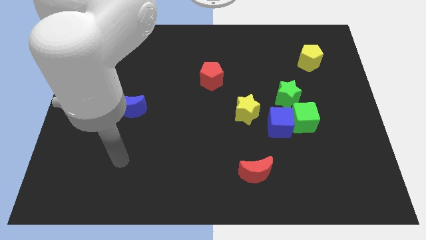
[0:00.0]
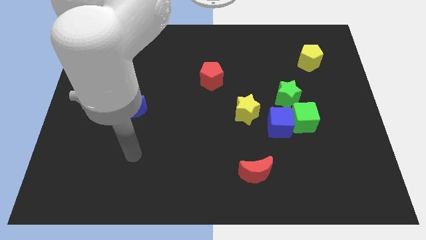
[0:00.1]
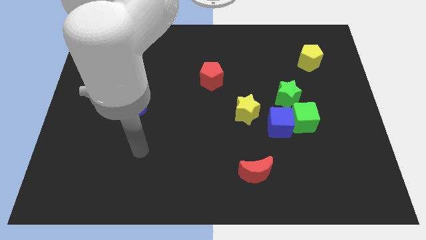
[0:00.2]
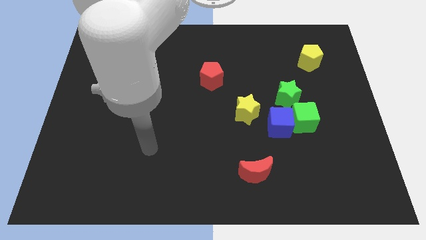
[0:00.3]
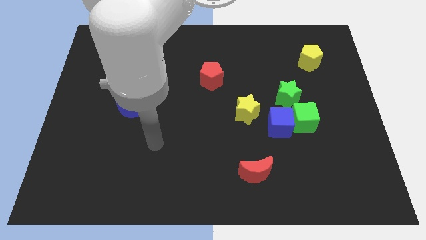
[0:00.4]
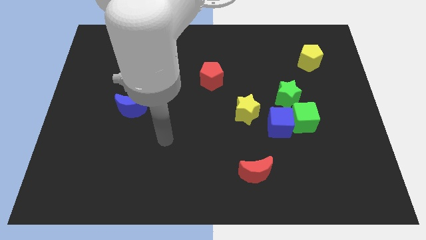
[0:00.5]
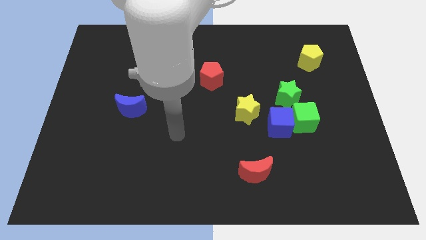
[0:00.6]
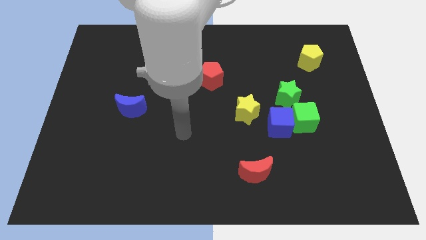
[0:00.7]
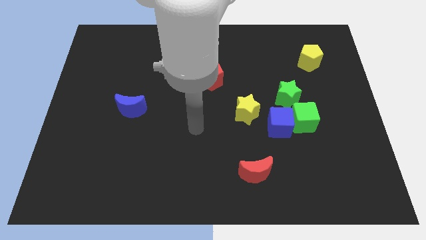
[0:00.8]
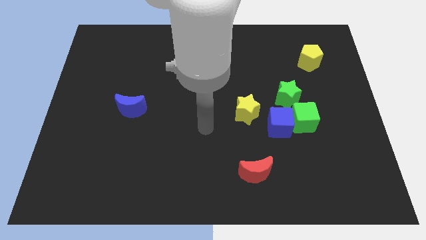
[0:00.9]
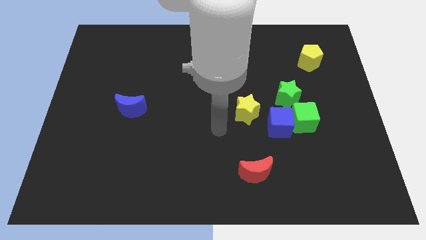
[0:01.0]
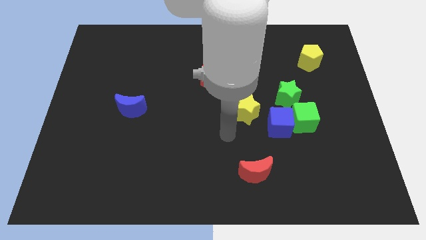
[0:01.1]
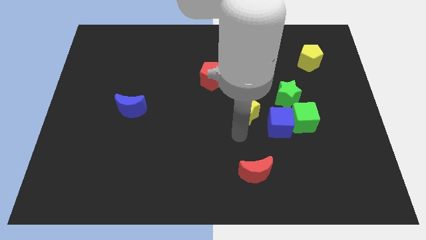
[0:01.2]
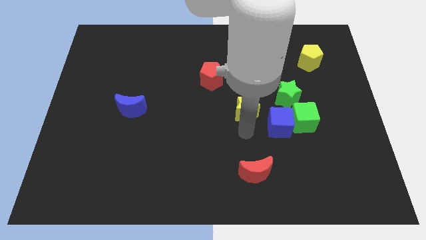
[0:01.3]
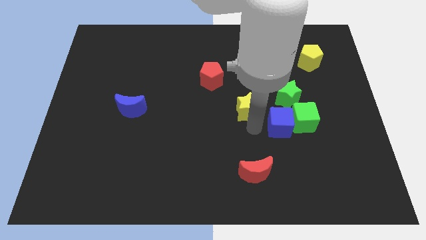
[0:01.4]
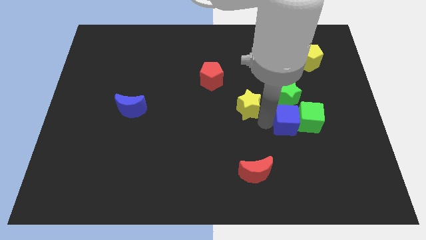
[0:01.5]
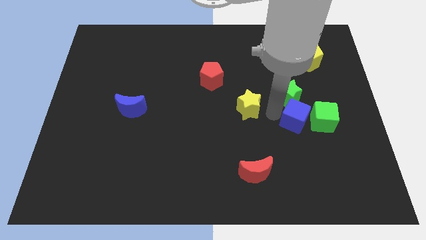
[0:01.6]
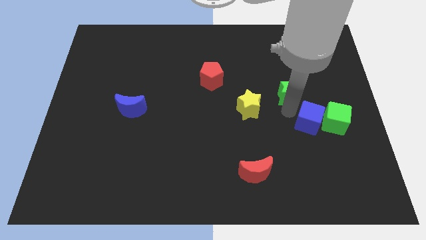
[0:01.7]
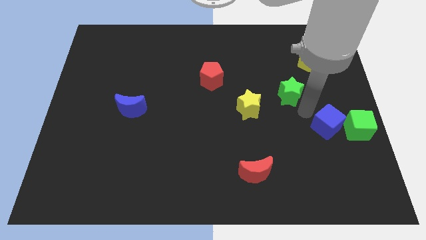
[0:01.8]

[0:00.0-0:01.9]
separate the green cube from the blue cube and green star

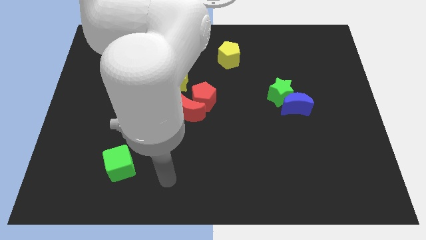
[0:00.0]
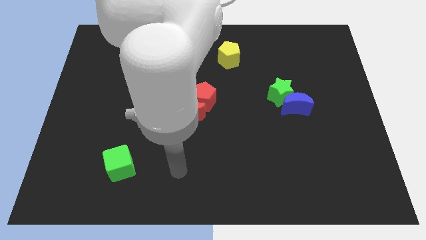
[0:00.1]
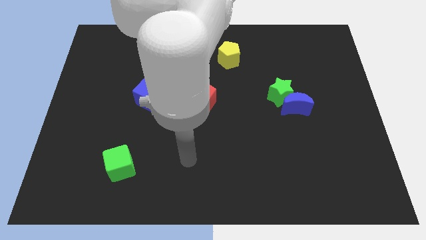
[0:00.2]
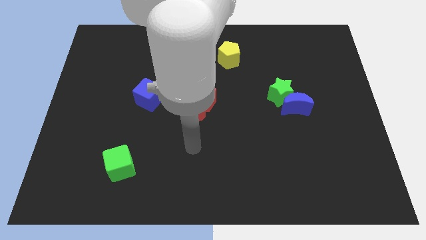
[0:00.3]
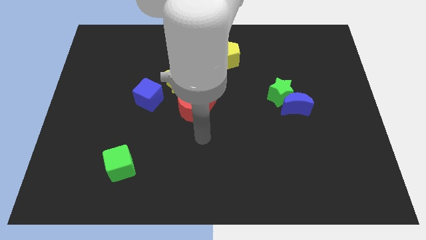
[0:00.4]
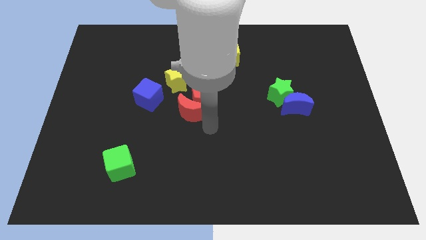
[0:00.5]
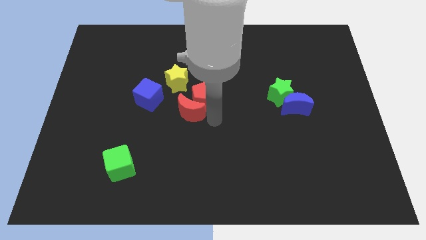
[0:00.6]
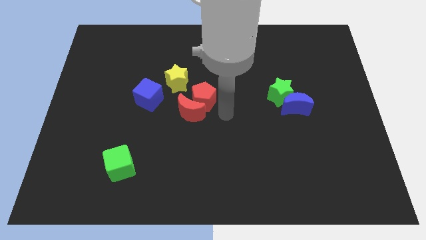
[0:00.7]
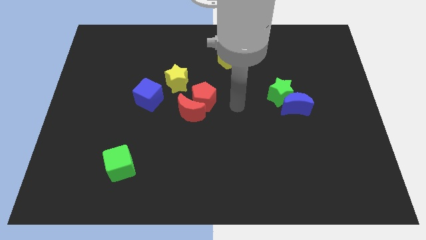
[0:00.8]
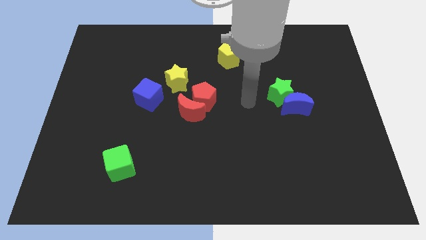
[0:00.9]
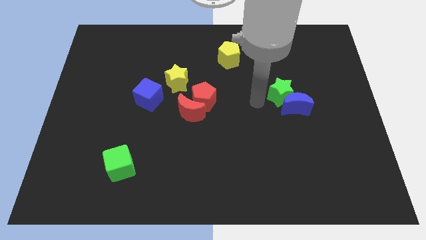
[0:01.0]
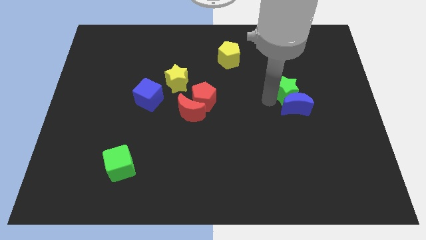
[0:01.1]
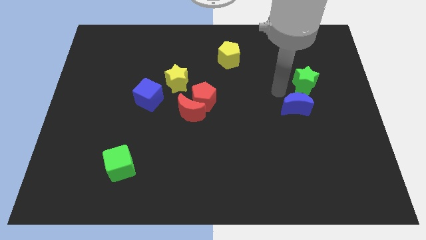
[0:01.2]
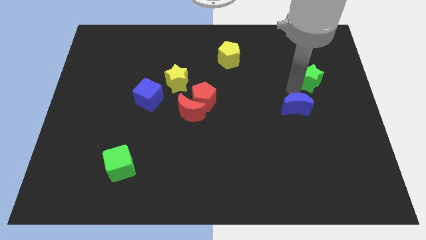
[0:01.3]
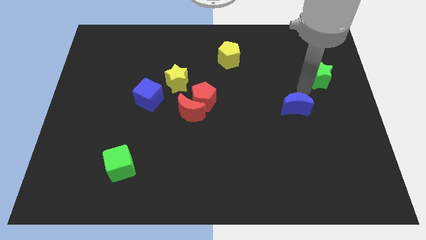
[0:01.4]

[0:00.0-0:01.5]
pull the blue moon apart from the green star

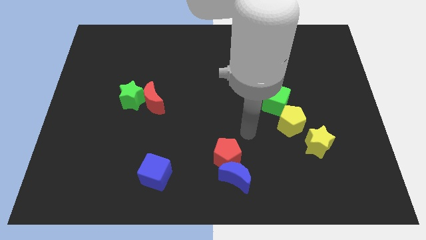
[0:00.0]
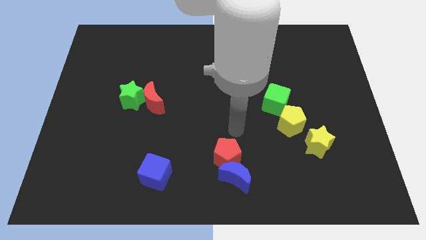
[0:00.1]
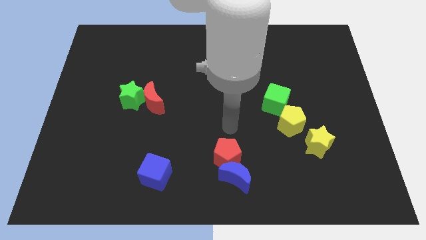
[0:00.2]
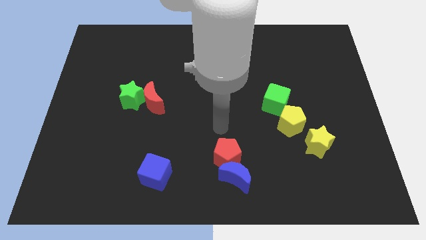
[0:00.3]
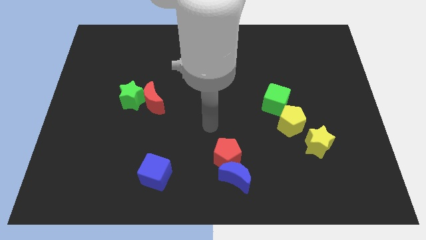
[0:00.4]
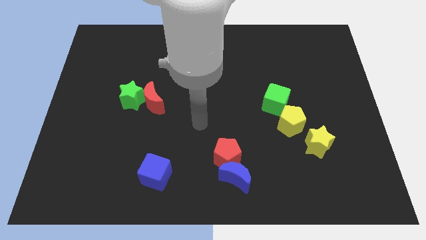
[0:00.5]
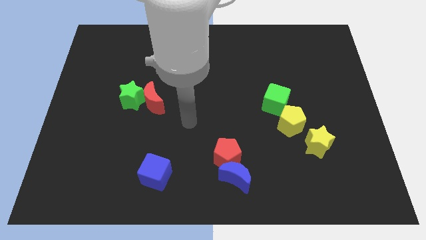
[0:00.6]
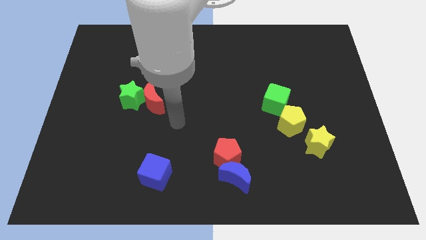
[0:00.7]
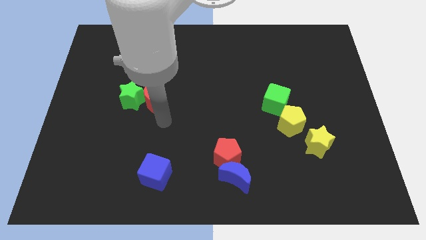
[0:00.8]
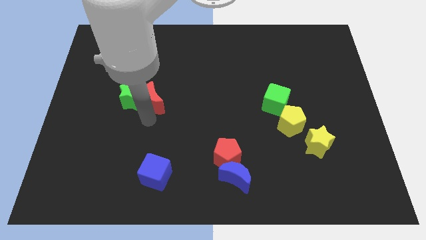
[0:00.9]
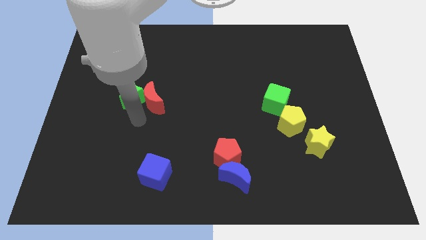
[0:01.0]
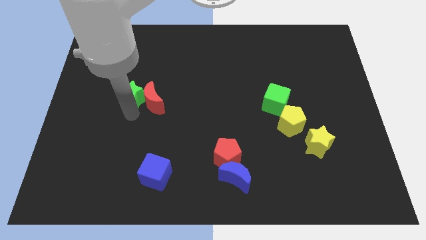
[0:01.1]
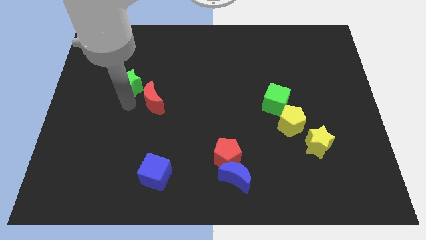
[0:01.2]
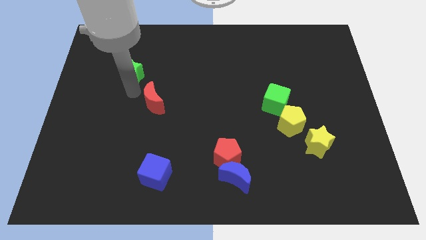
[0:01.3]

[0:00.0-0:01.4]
move the red moon away from the green star

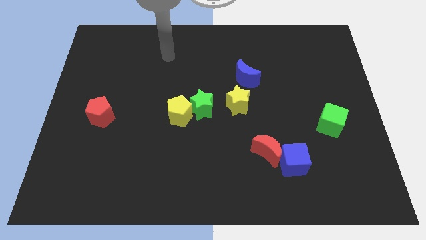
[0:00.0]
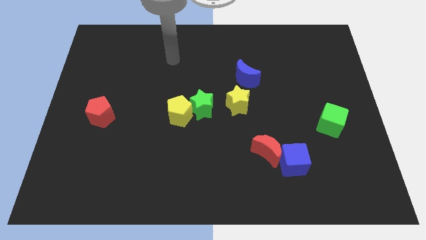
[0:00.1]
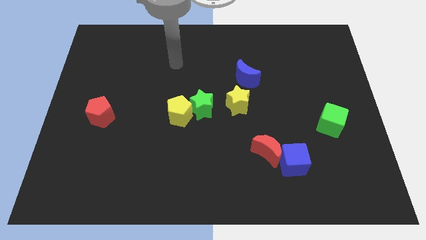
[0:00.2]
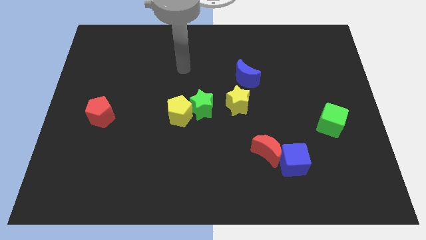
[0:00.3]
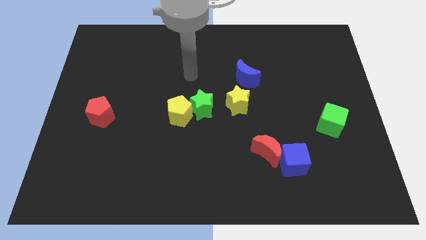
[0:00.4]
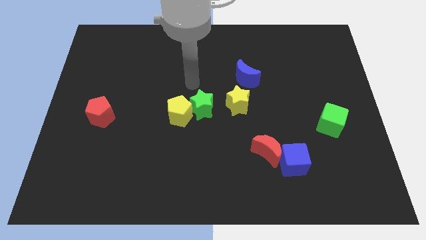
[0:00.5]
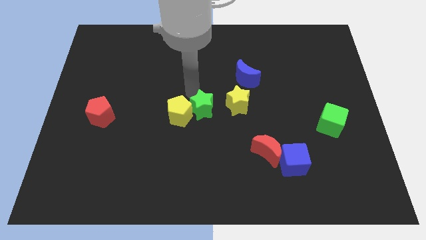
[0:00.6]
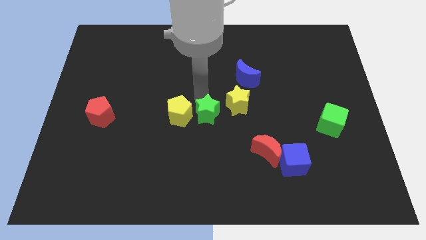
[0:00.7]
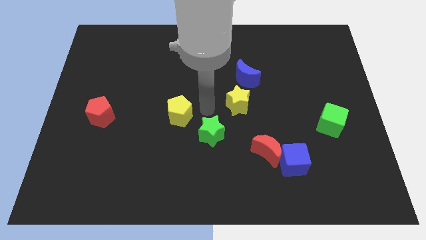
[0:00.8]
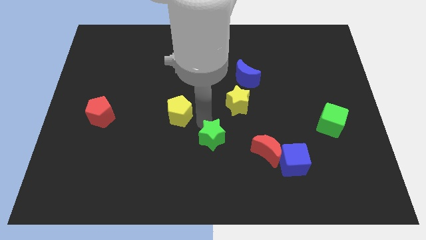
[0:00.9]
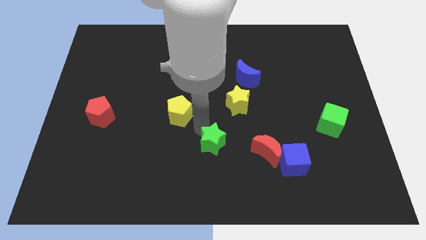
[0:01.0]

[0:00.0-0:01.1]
pull the yellow pentagon apart from the green star

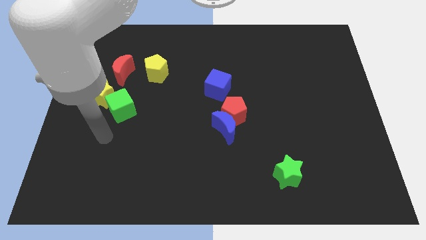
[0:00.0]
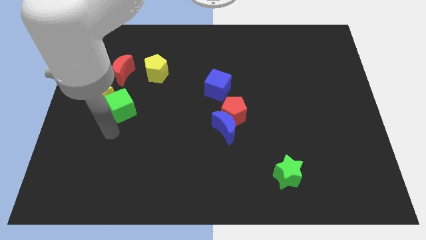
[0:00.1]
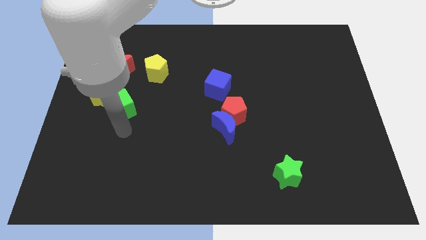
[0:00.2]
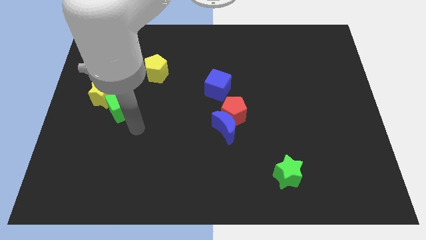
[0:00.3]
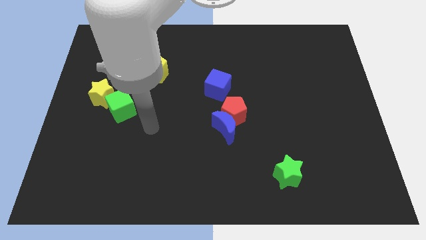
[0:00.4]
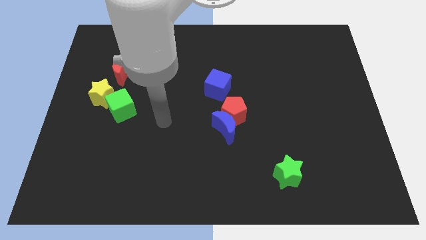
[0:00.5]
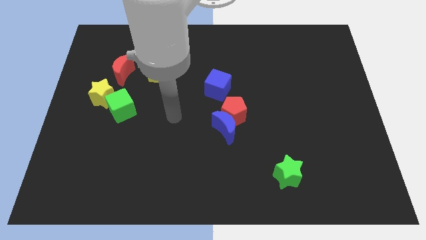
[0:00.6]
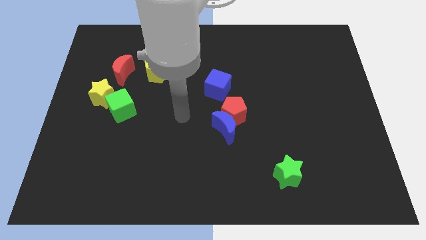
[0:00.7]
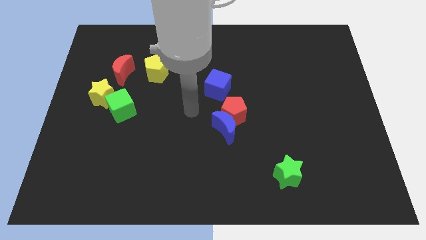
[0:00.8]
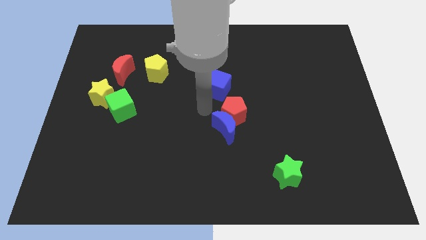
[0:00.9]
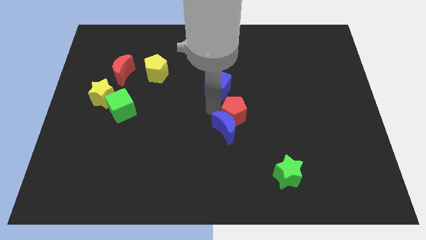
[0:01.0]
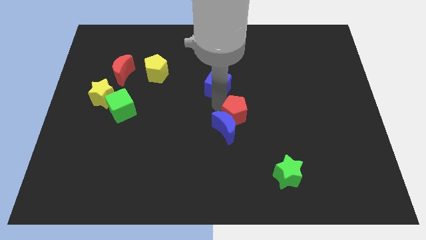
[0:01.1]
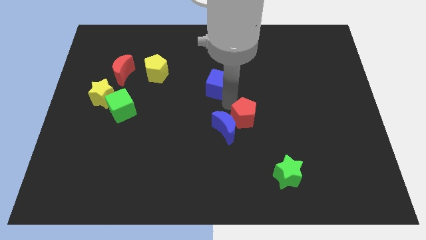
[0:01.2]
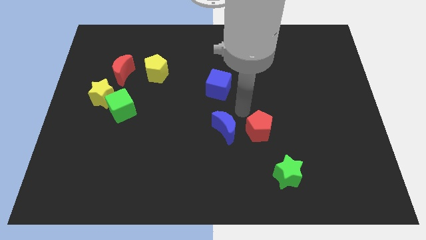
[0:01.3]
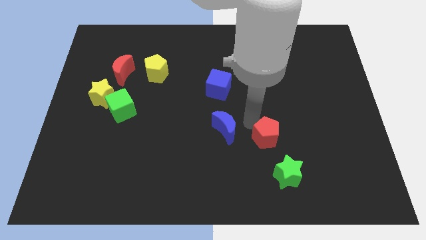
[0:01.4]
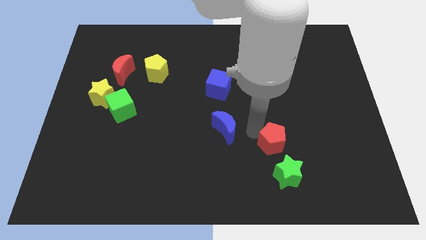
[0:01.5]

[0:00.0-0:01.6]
pull the blue moon apart from the red pentagon

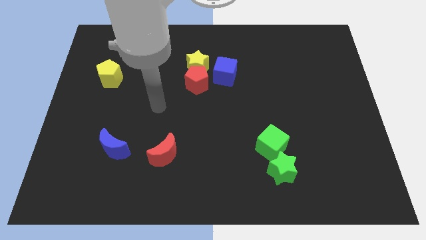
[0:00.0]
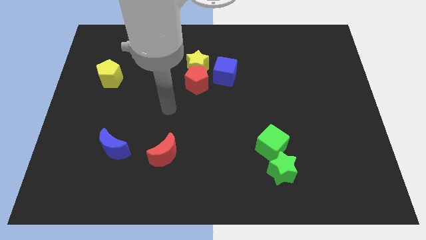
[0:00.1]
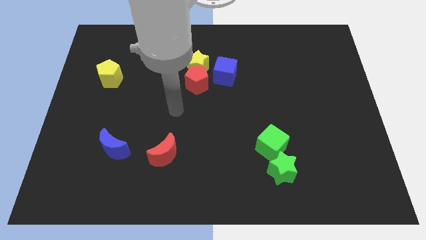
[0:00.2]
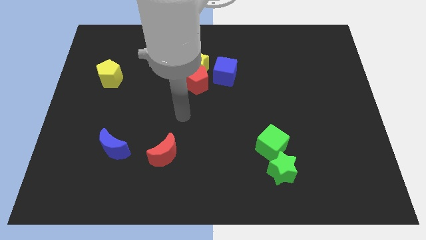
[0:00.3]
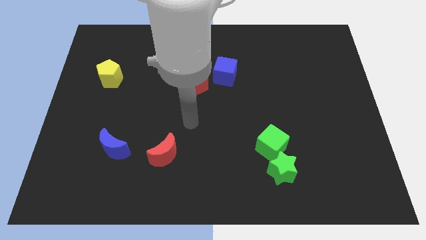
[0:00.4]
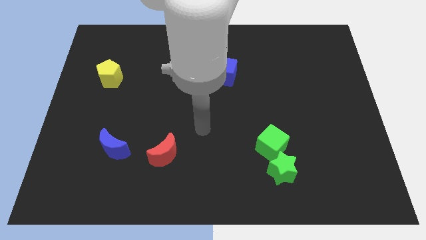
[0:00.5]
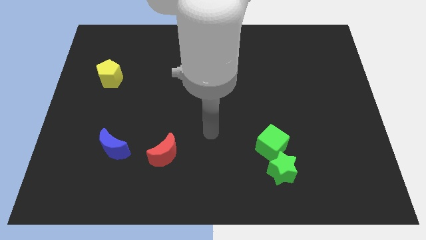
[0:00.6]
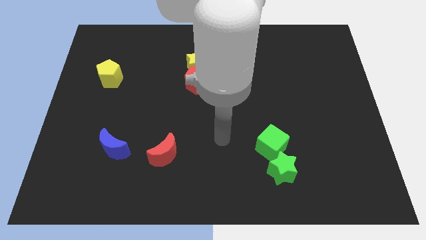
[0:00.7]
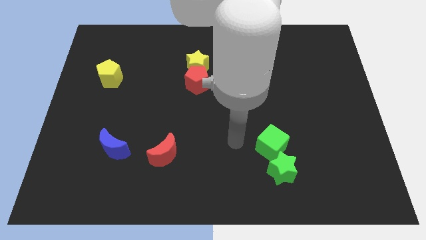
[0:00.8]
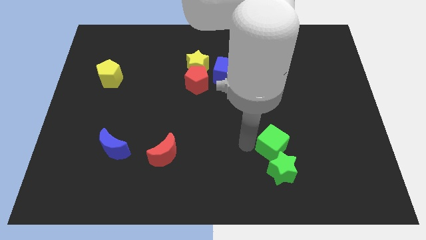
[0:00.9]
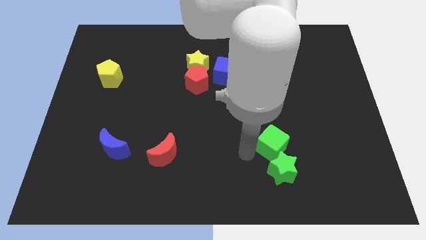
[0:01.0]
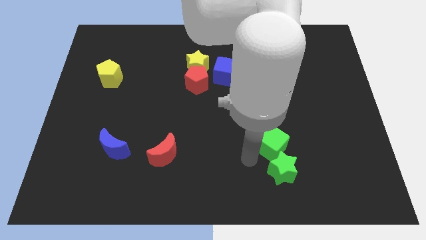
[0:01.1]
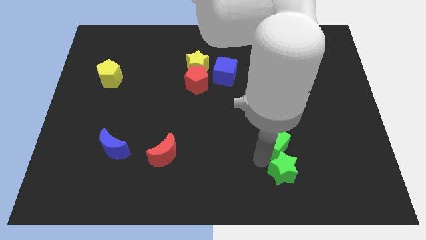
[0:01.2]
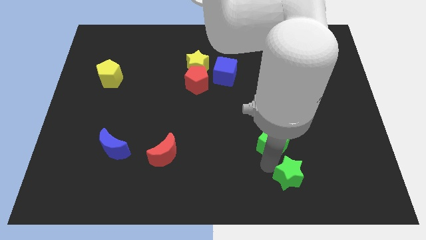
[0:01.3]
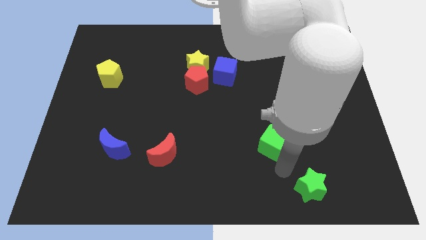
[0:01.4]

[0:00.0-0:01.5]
move the green cube away from the green star

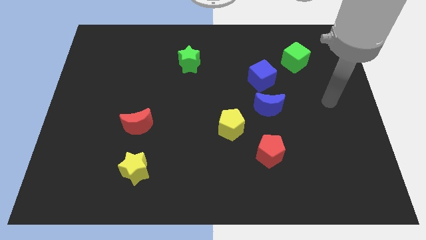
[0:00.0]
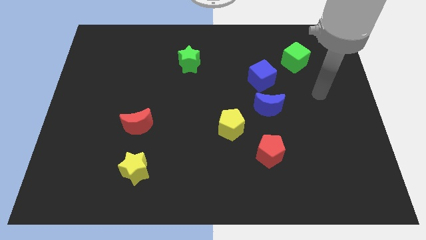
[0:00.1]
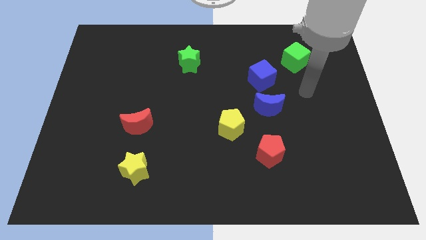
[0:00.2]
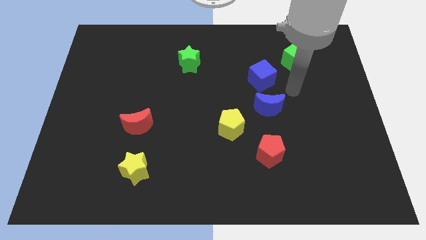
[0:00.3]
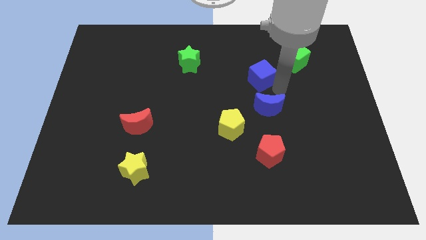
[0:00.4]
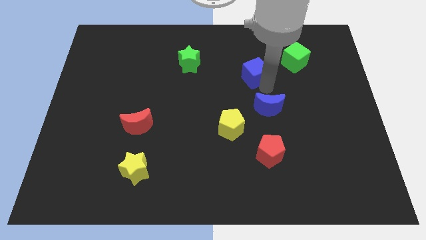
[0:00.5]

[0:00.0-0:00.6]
move the blue moon away from the blue cube
